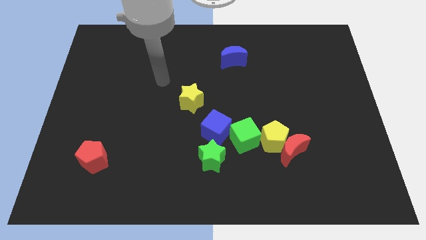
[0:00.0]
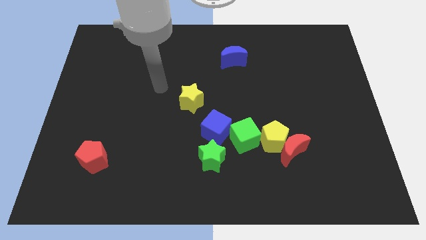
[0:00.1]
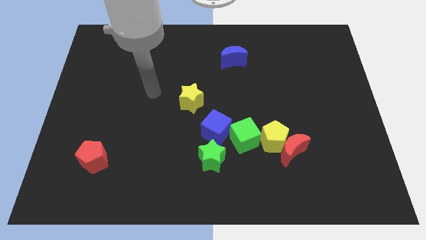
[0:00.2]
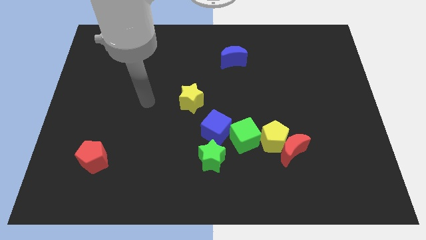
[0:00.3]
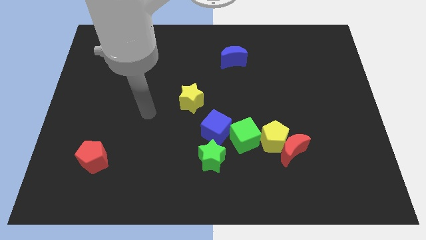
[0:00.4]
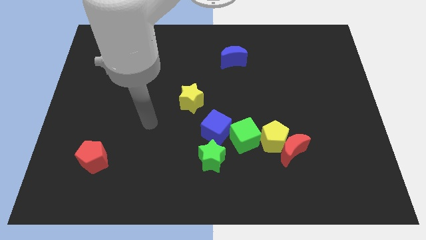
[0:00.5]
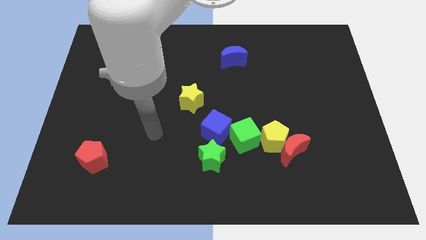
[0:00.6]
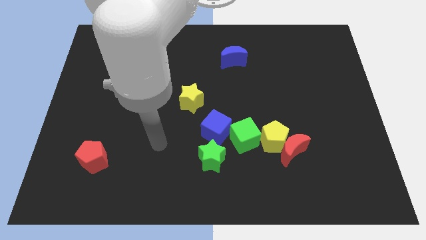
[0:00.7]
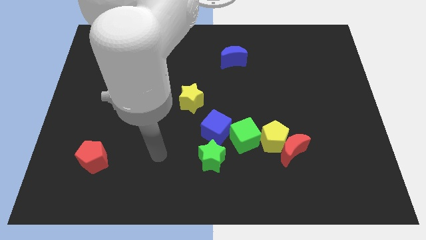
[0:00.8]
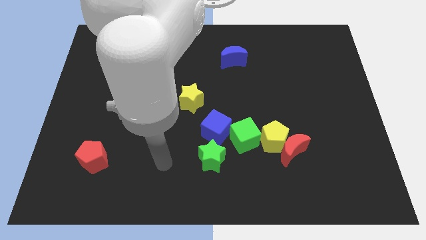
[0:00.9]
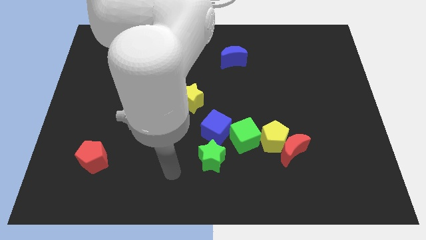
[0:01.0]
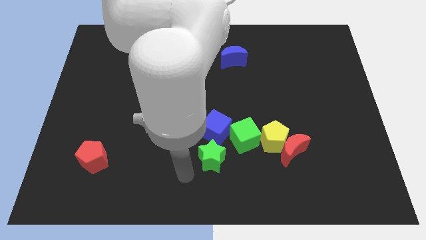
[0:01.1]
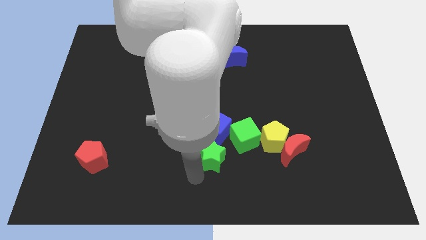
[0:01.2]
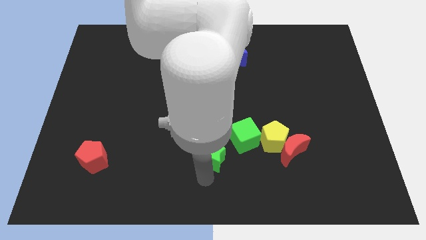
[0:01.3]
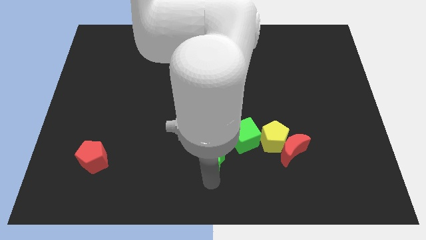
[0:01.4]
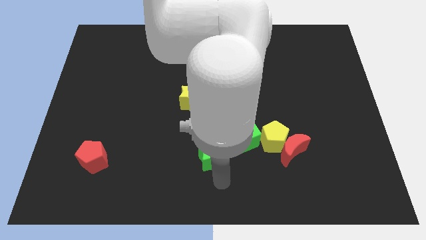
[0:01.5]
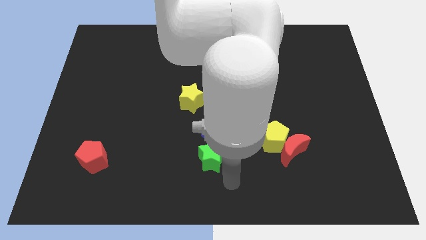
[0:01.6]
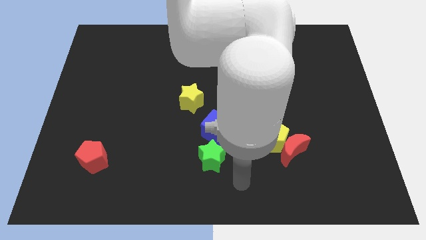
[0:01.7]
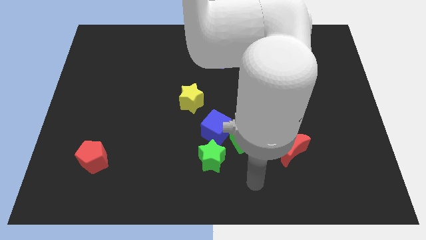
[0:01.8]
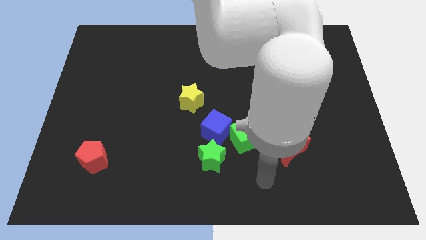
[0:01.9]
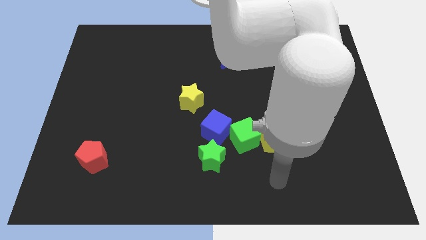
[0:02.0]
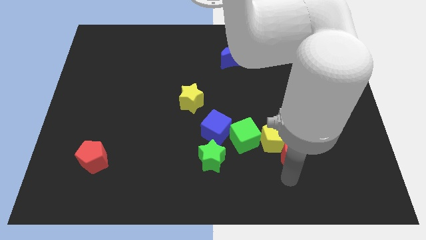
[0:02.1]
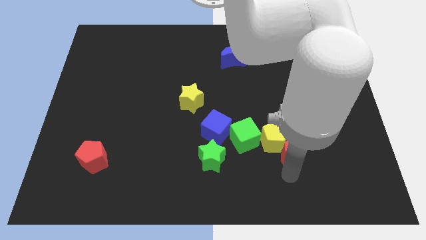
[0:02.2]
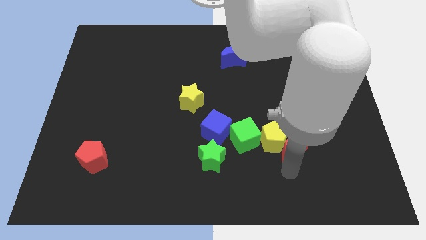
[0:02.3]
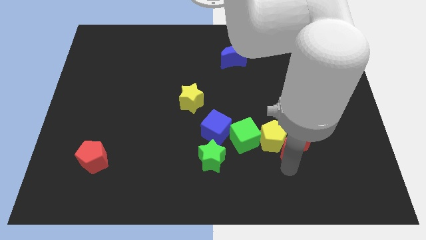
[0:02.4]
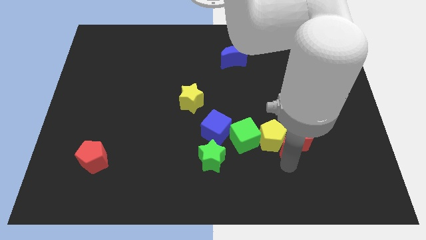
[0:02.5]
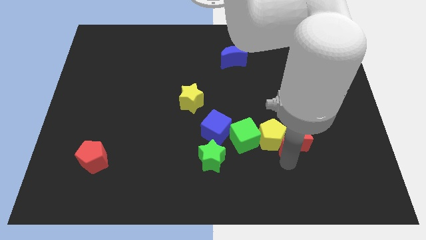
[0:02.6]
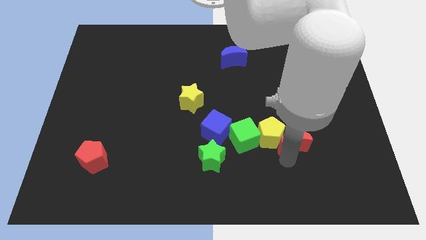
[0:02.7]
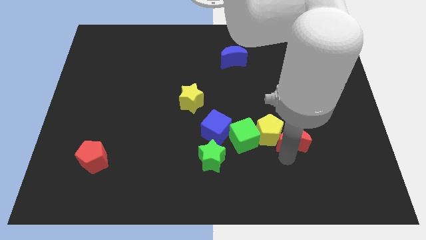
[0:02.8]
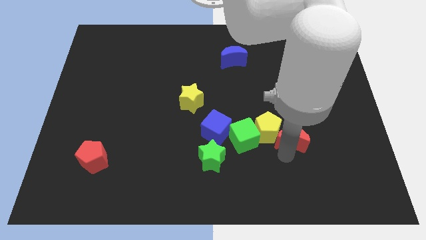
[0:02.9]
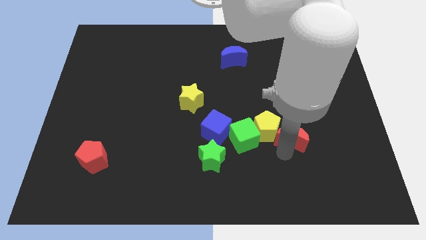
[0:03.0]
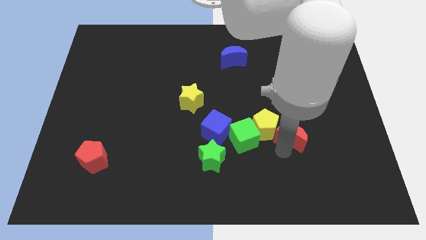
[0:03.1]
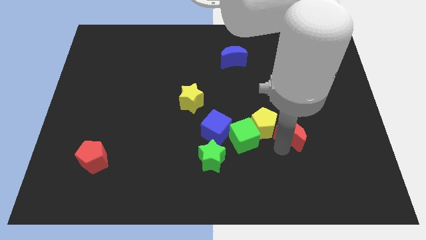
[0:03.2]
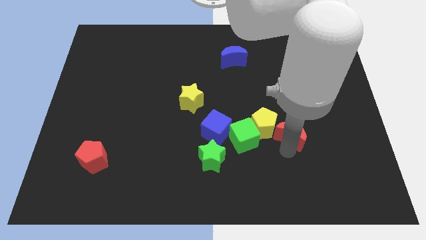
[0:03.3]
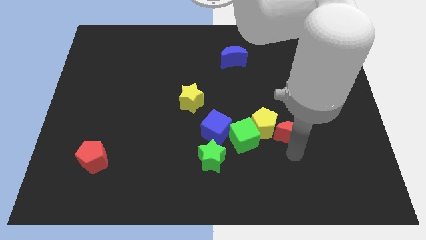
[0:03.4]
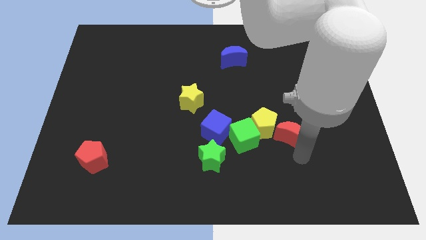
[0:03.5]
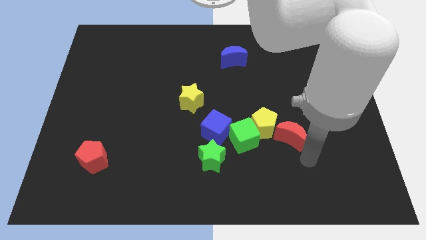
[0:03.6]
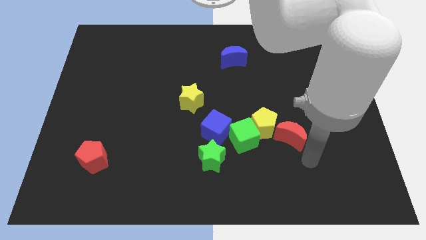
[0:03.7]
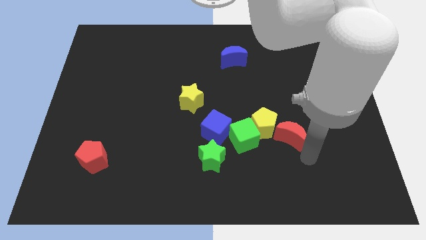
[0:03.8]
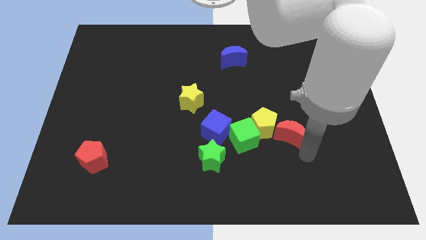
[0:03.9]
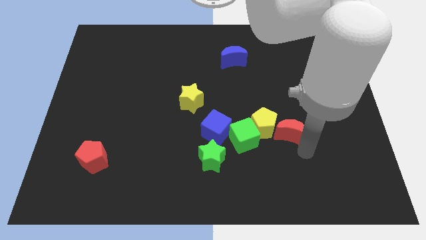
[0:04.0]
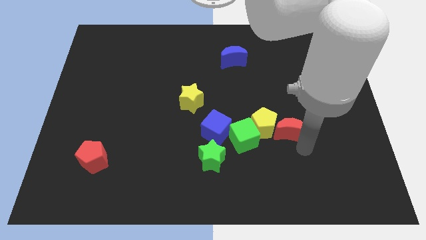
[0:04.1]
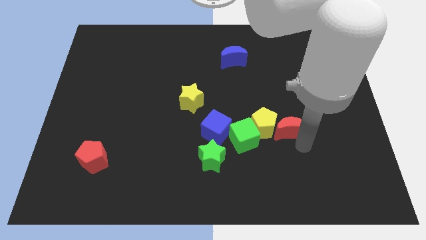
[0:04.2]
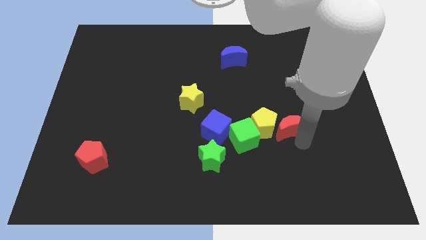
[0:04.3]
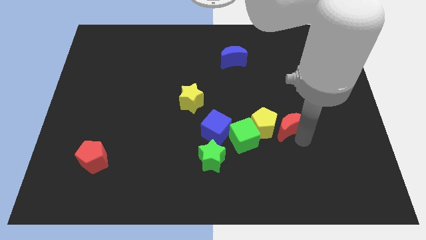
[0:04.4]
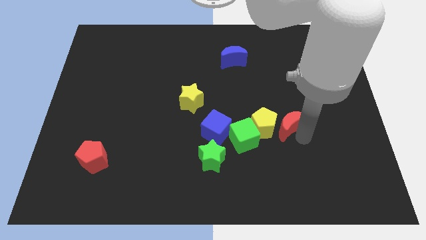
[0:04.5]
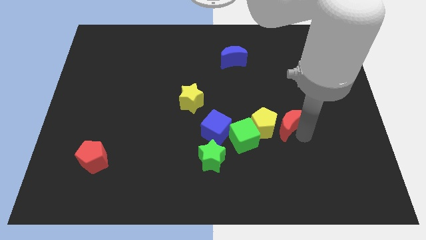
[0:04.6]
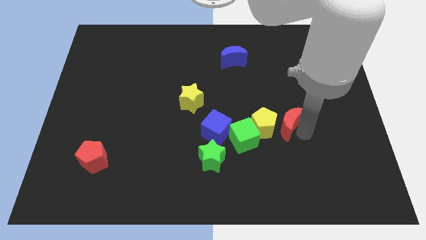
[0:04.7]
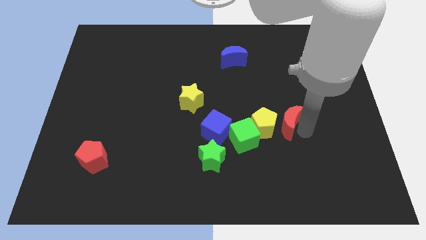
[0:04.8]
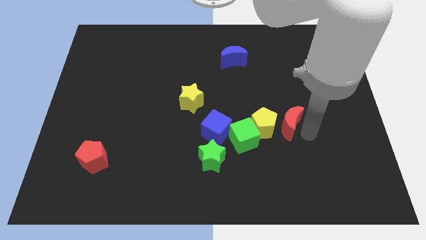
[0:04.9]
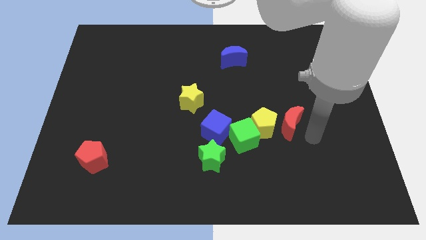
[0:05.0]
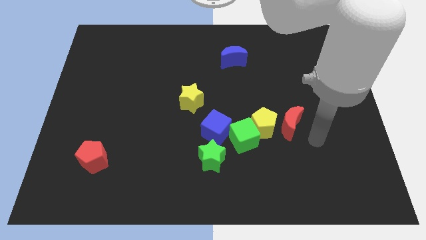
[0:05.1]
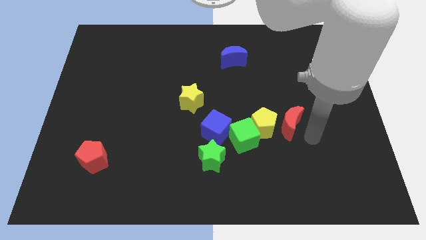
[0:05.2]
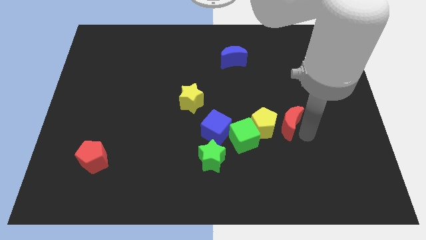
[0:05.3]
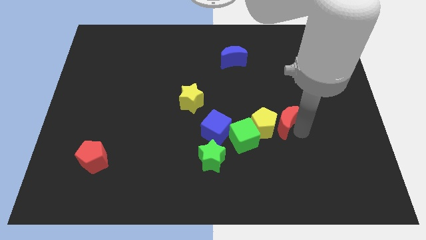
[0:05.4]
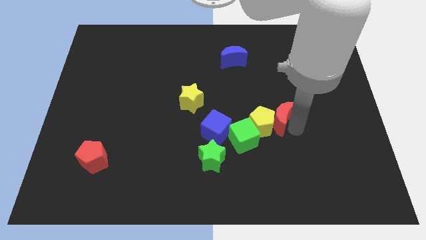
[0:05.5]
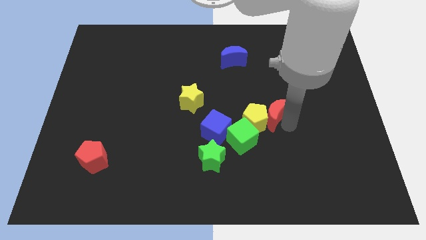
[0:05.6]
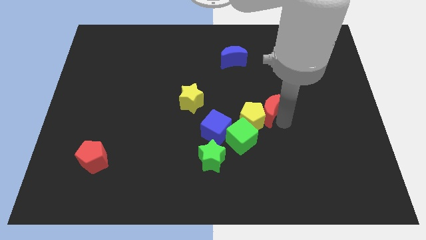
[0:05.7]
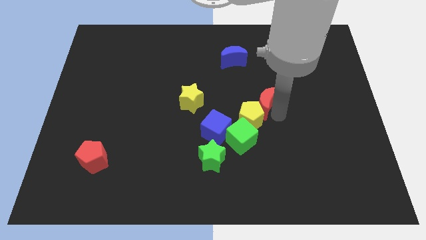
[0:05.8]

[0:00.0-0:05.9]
slide the red moon to the center of the board
